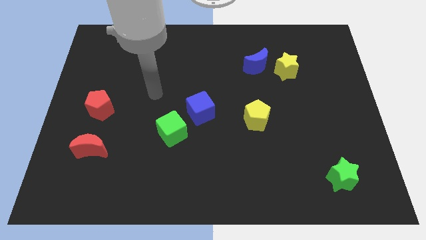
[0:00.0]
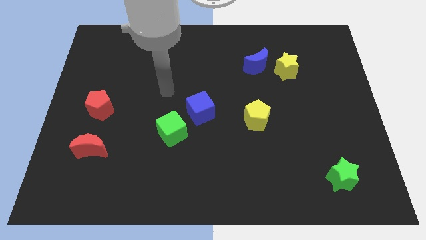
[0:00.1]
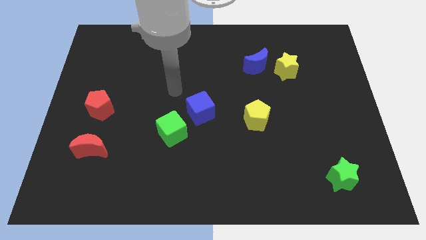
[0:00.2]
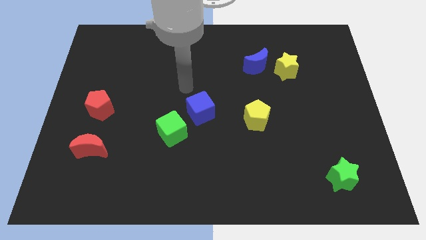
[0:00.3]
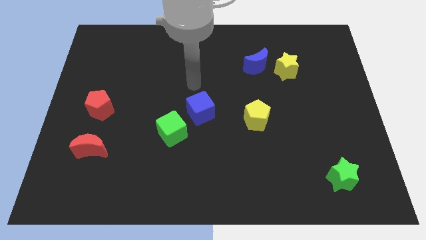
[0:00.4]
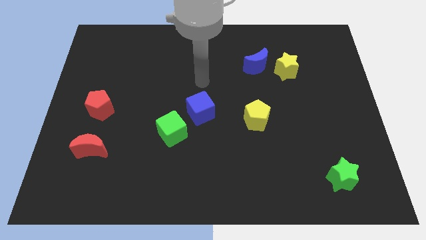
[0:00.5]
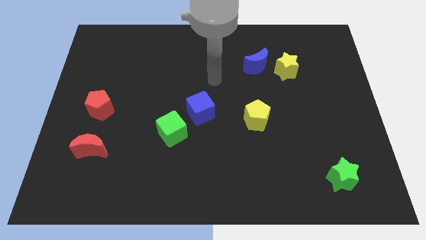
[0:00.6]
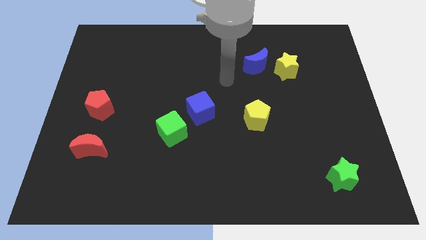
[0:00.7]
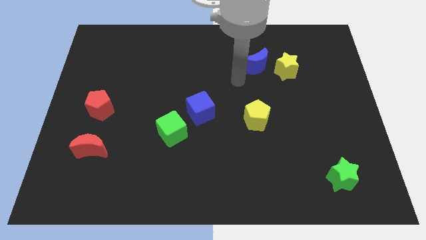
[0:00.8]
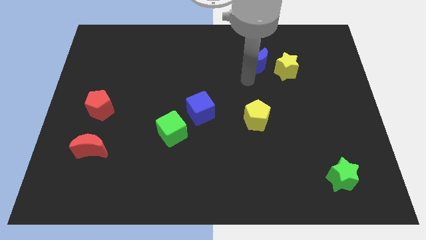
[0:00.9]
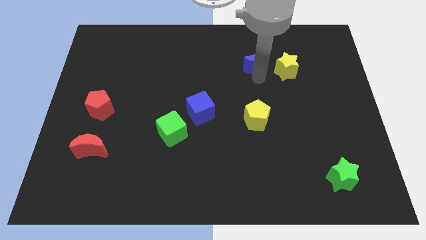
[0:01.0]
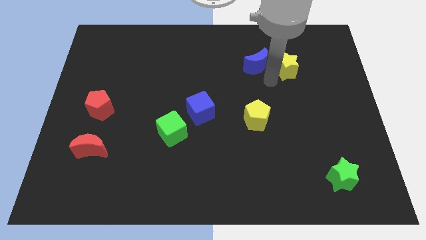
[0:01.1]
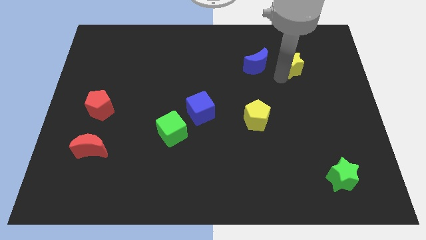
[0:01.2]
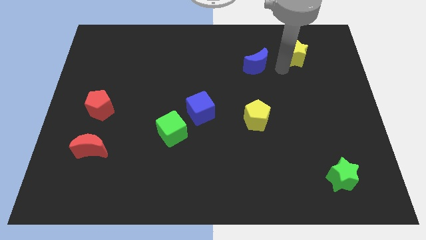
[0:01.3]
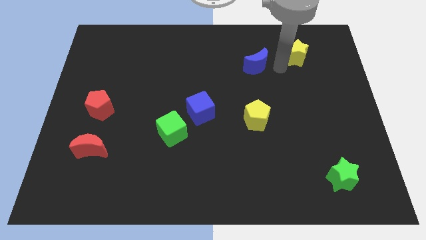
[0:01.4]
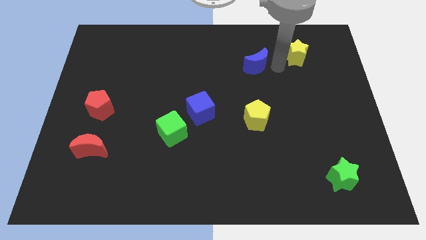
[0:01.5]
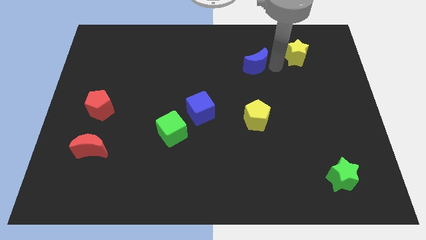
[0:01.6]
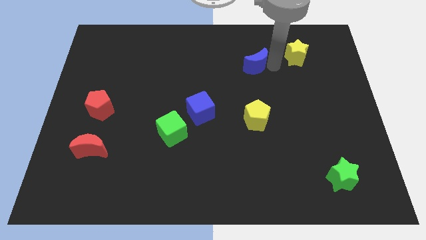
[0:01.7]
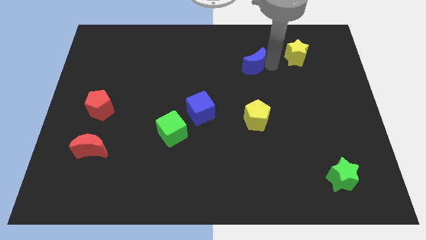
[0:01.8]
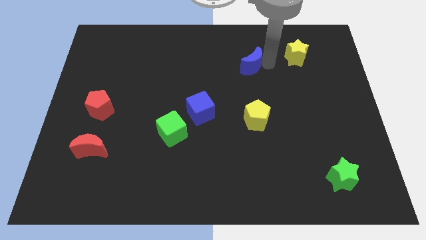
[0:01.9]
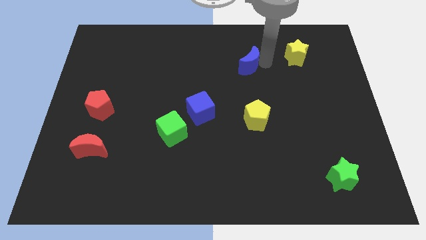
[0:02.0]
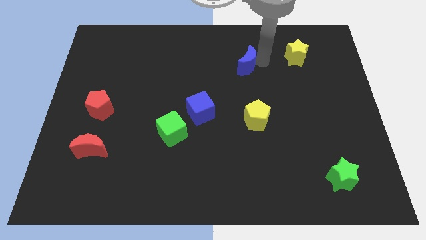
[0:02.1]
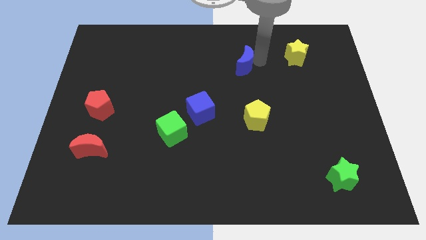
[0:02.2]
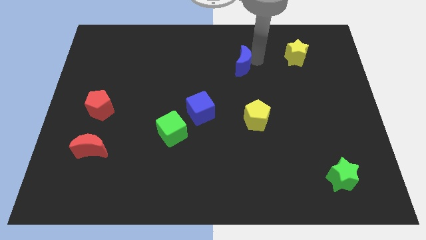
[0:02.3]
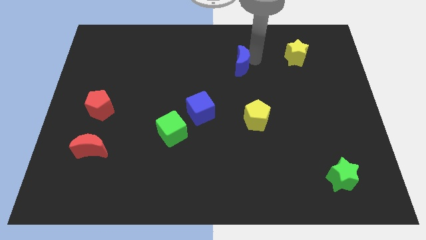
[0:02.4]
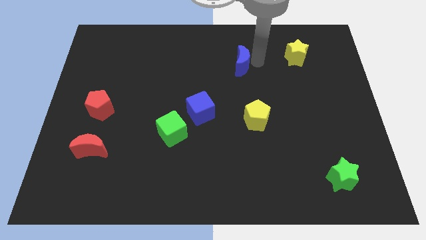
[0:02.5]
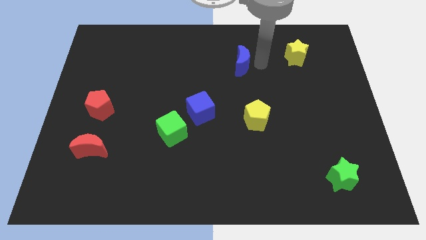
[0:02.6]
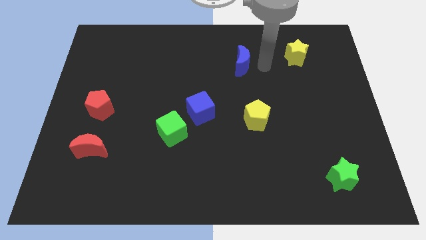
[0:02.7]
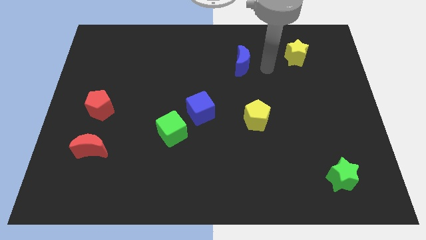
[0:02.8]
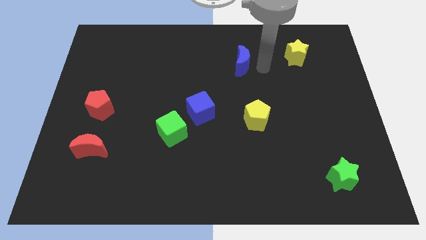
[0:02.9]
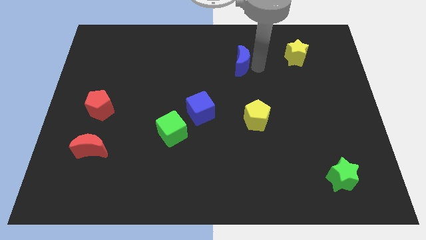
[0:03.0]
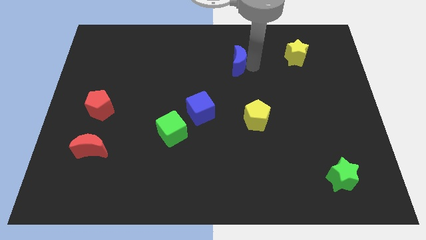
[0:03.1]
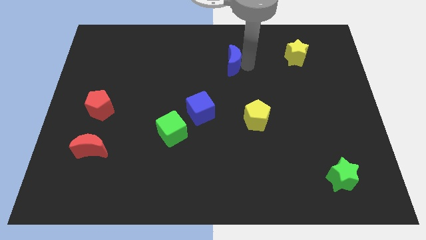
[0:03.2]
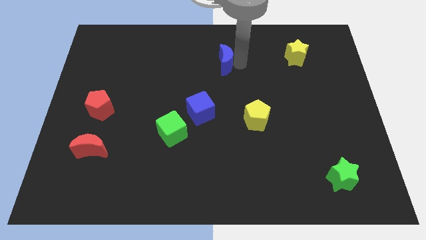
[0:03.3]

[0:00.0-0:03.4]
slightly move the blue moon left

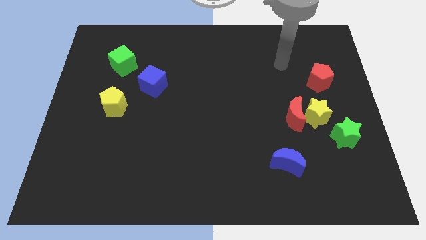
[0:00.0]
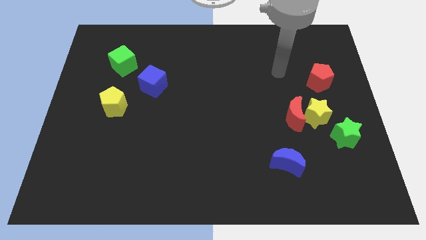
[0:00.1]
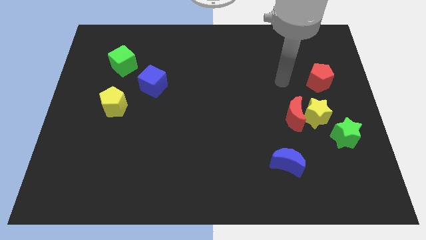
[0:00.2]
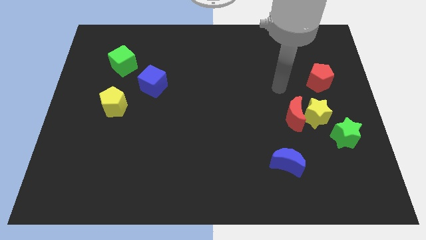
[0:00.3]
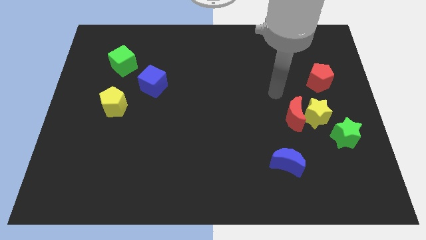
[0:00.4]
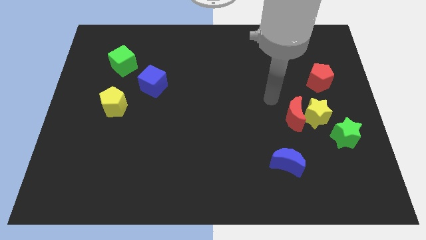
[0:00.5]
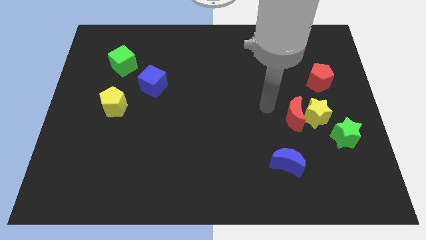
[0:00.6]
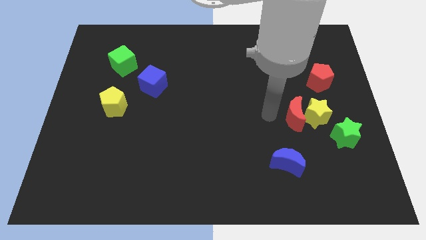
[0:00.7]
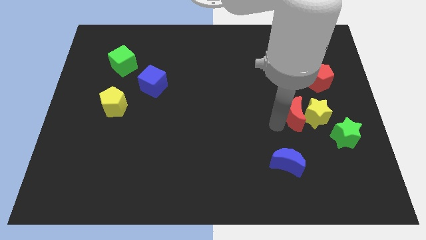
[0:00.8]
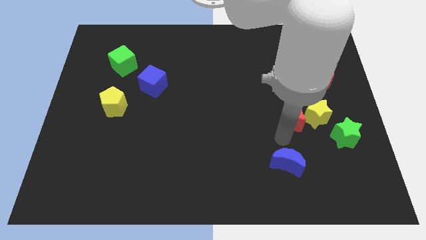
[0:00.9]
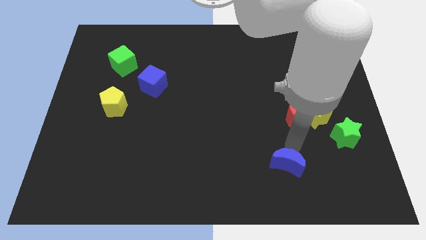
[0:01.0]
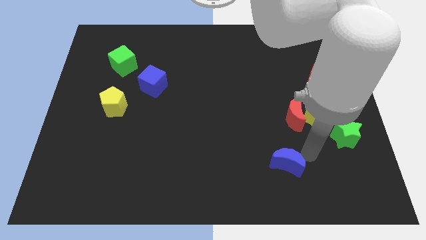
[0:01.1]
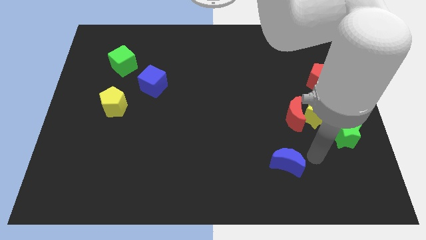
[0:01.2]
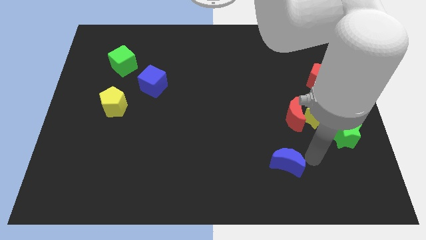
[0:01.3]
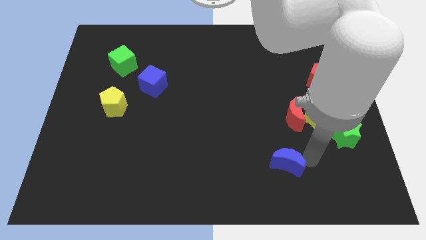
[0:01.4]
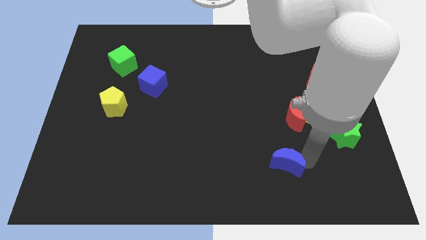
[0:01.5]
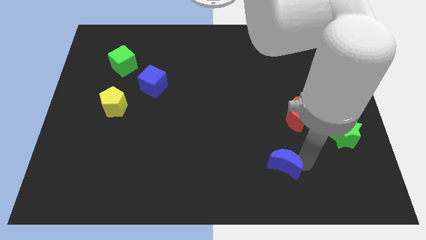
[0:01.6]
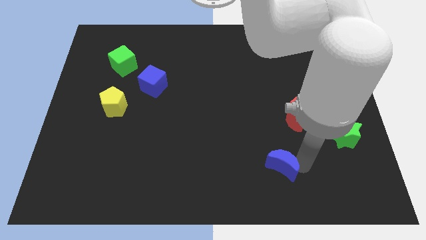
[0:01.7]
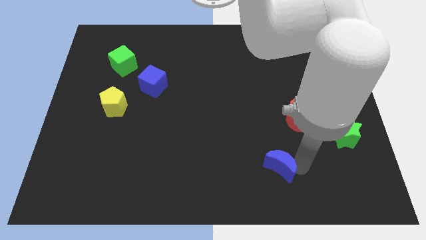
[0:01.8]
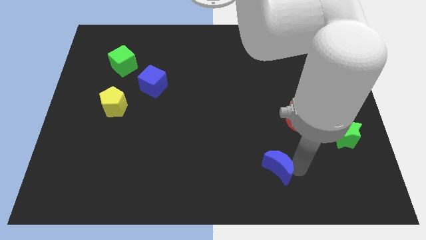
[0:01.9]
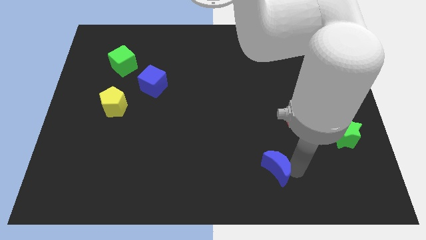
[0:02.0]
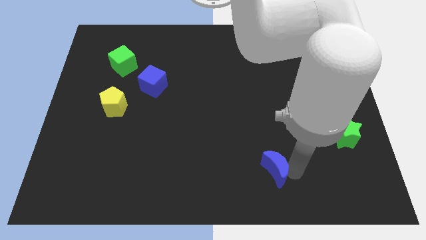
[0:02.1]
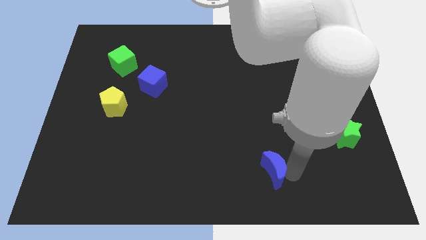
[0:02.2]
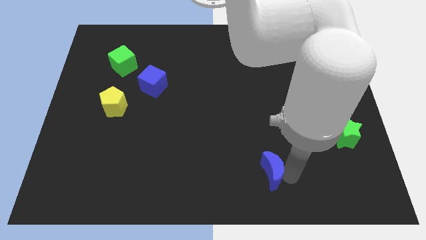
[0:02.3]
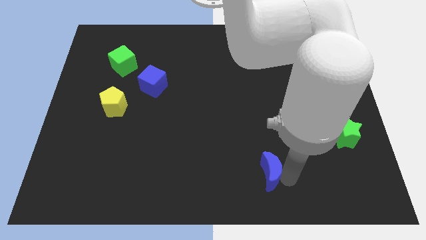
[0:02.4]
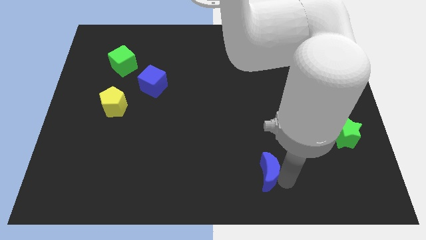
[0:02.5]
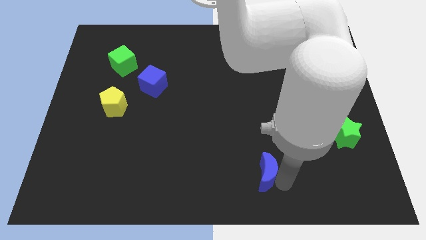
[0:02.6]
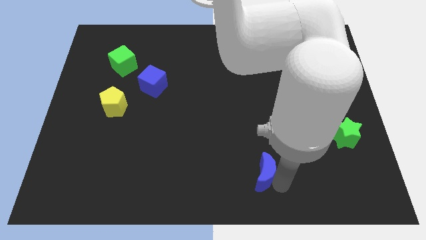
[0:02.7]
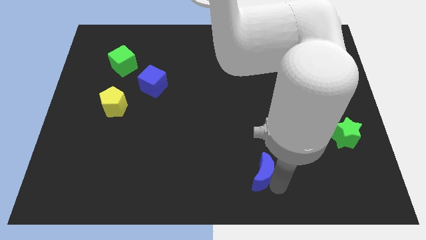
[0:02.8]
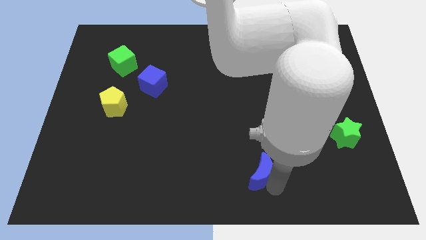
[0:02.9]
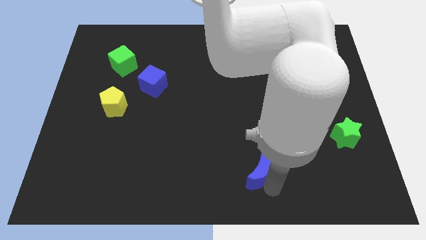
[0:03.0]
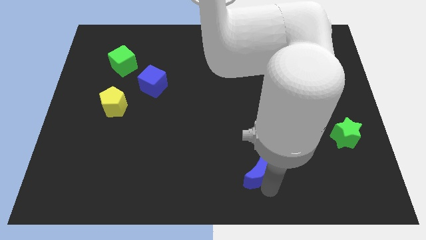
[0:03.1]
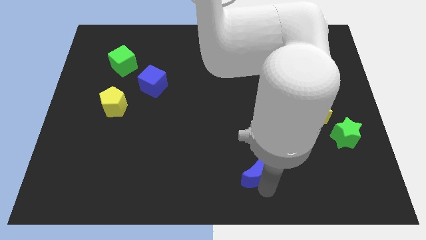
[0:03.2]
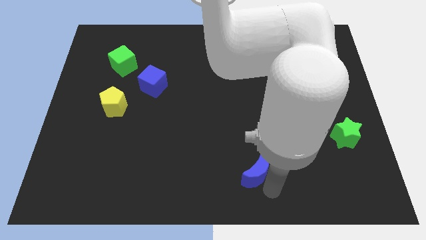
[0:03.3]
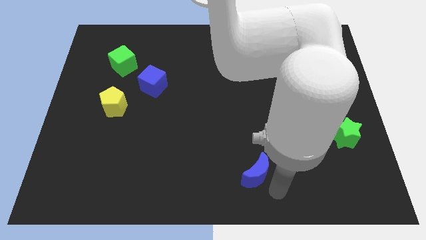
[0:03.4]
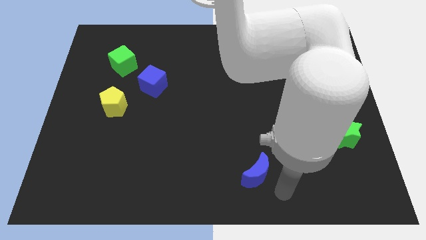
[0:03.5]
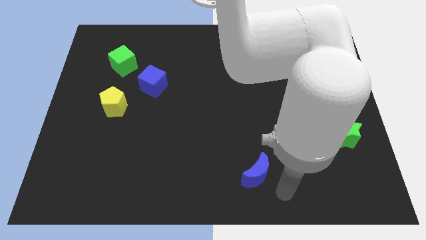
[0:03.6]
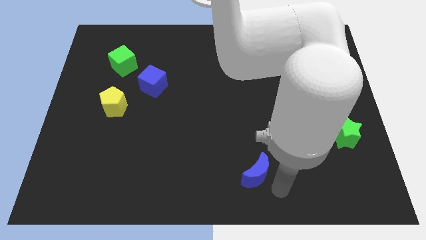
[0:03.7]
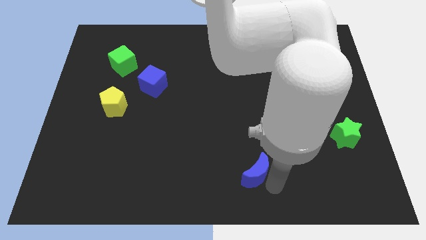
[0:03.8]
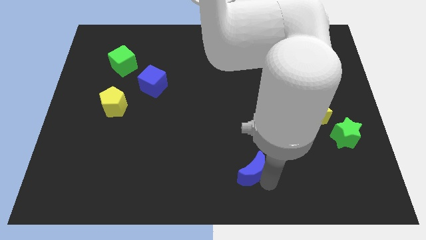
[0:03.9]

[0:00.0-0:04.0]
move the blue moon a little bit left

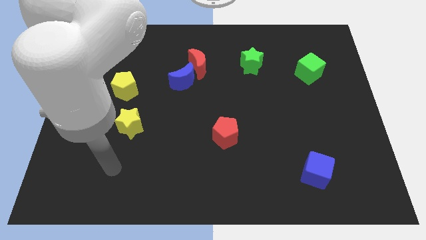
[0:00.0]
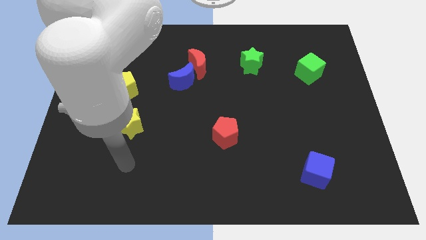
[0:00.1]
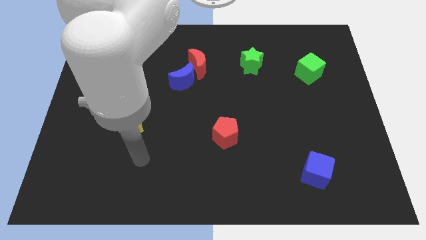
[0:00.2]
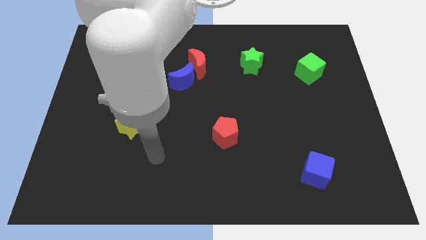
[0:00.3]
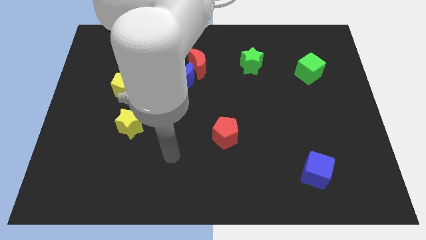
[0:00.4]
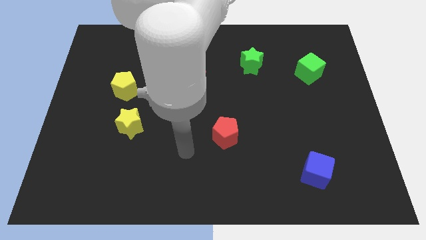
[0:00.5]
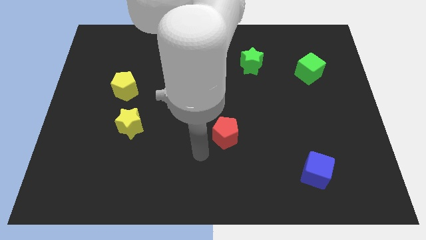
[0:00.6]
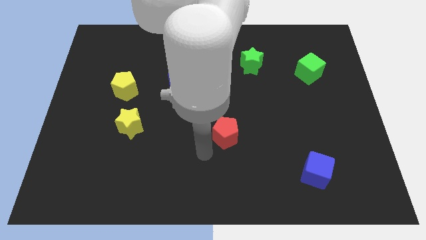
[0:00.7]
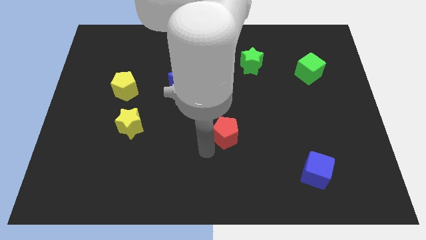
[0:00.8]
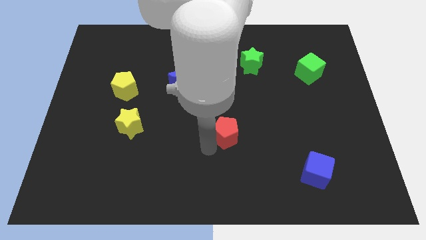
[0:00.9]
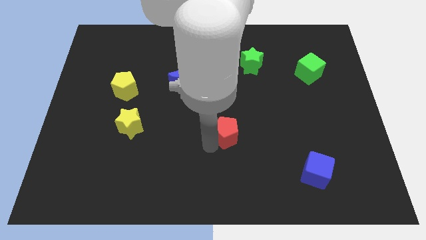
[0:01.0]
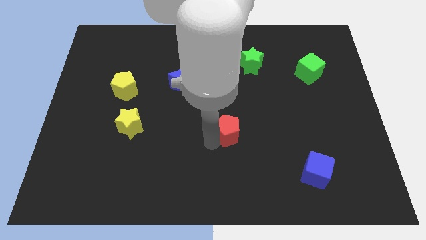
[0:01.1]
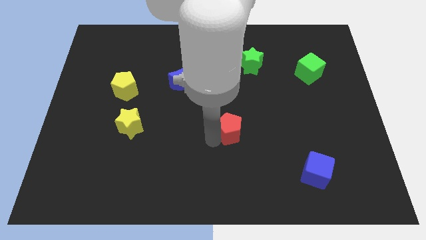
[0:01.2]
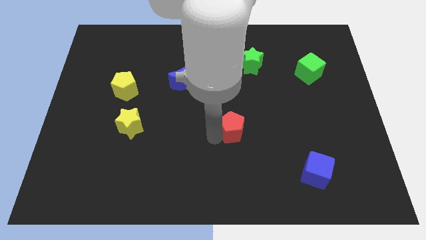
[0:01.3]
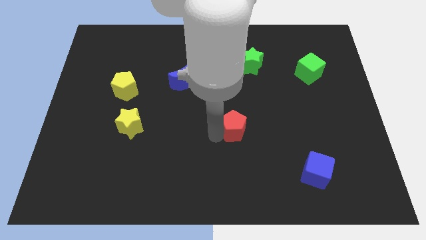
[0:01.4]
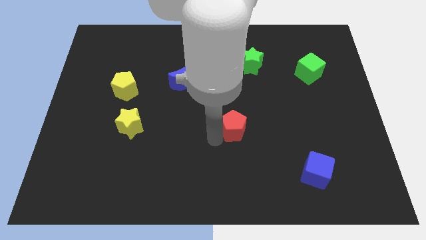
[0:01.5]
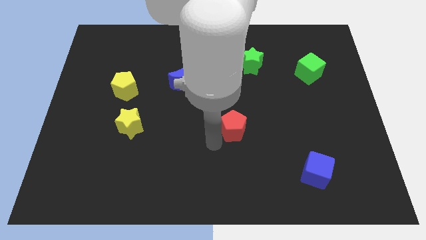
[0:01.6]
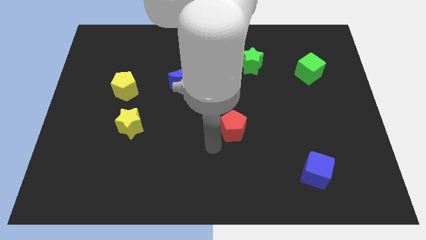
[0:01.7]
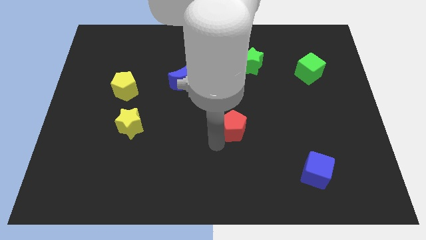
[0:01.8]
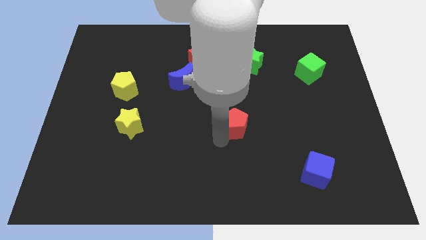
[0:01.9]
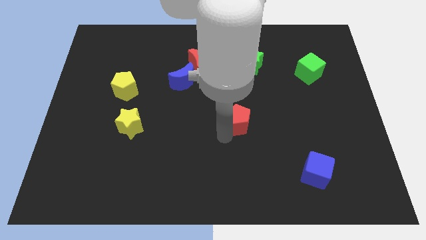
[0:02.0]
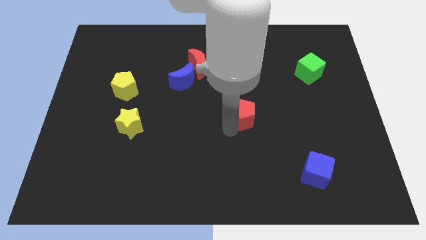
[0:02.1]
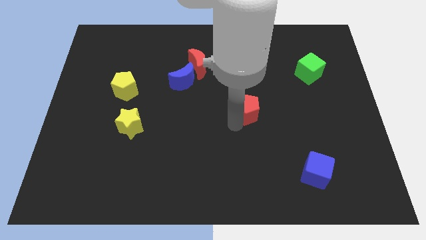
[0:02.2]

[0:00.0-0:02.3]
move the red pentagon upwards and then to the right slightly
